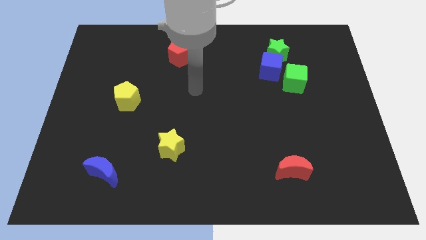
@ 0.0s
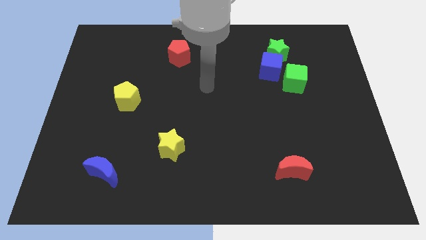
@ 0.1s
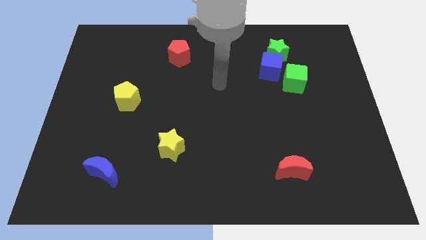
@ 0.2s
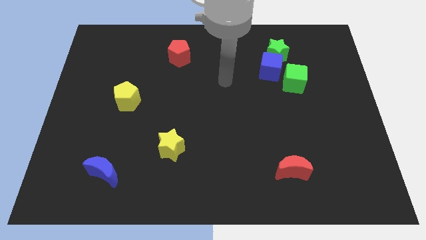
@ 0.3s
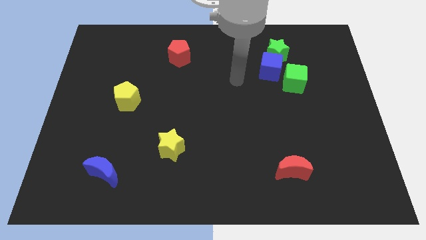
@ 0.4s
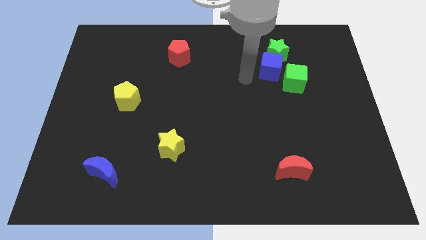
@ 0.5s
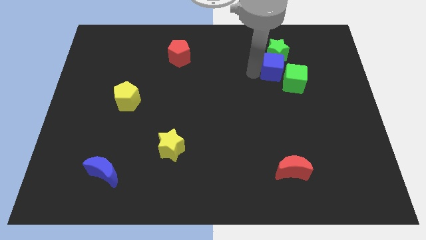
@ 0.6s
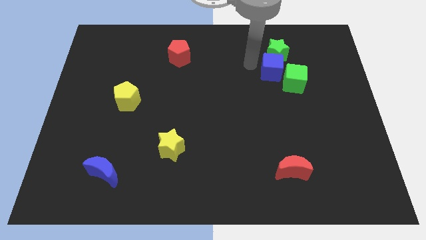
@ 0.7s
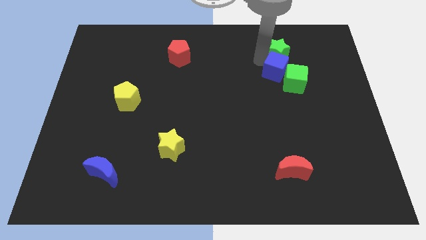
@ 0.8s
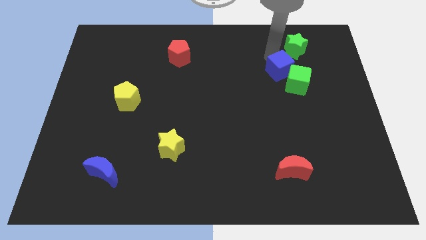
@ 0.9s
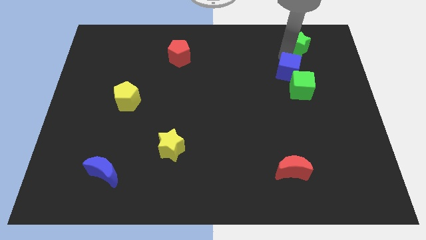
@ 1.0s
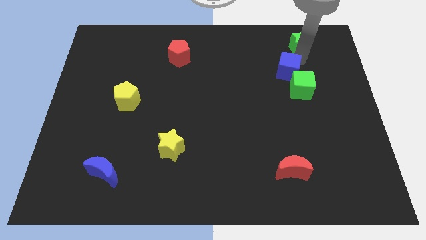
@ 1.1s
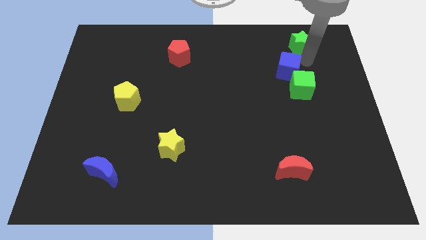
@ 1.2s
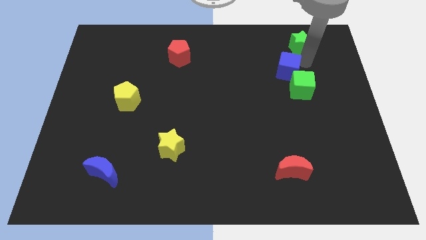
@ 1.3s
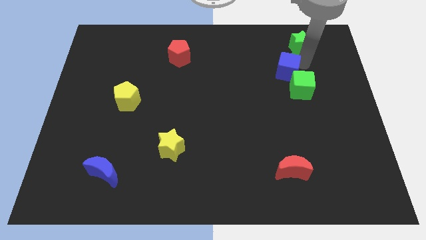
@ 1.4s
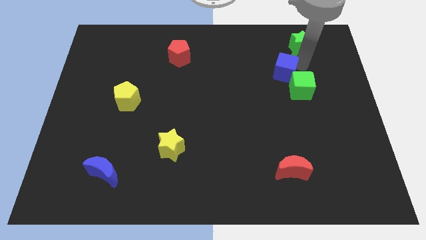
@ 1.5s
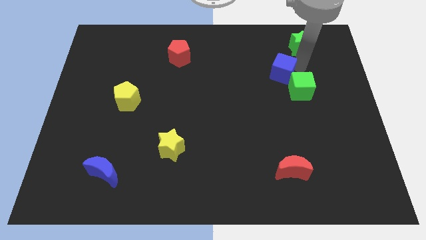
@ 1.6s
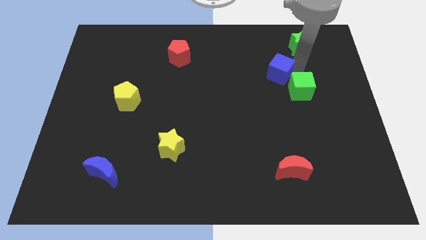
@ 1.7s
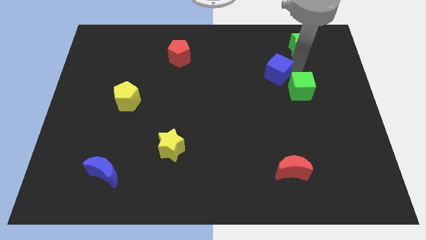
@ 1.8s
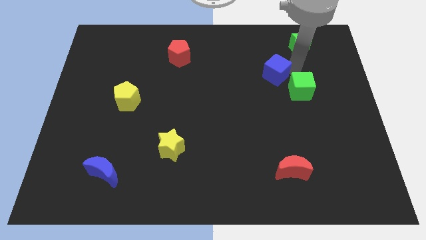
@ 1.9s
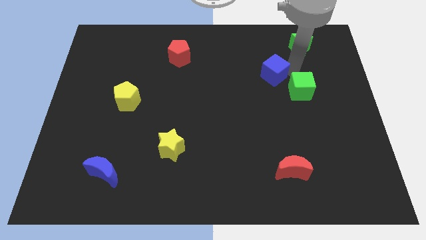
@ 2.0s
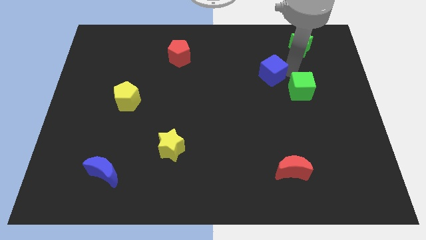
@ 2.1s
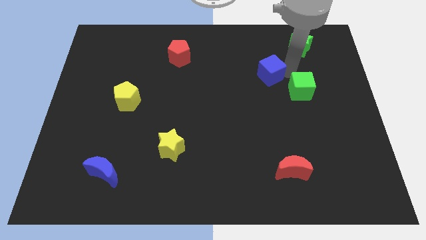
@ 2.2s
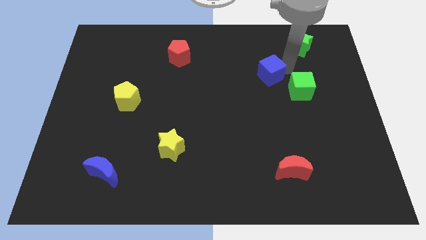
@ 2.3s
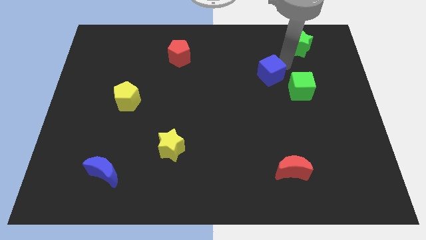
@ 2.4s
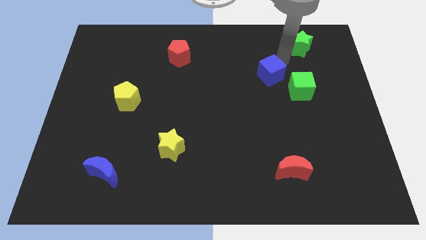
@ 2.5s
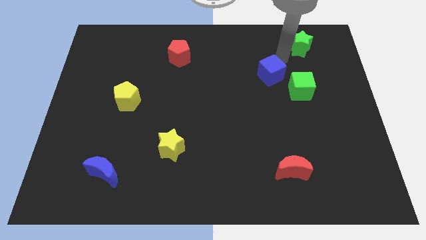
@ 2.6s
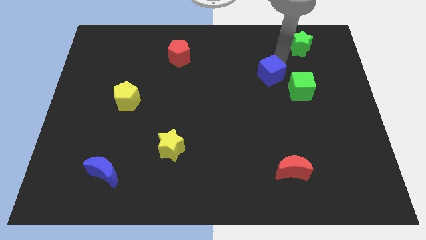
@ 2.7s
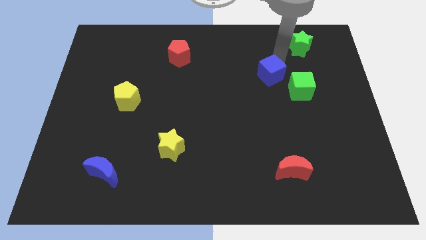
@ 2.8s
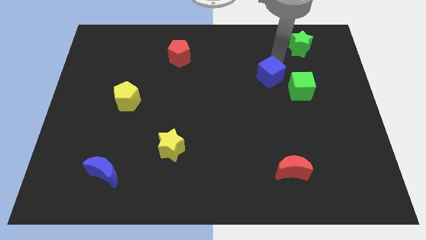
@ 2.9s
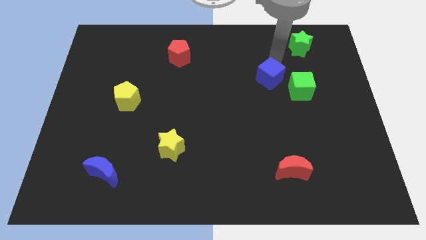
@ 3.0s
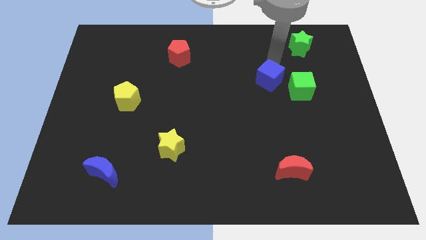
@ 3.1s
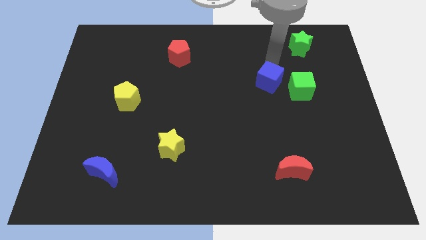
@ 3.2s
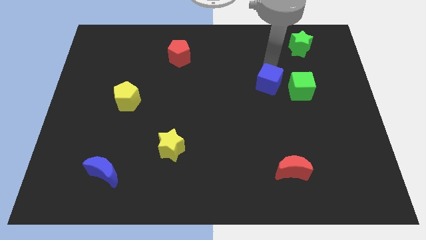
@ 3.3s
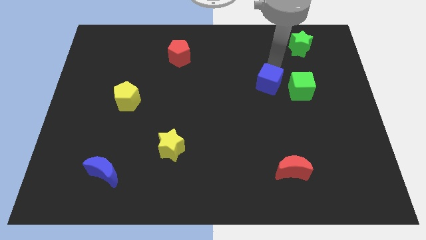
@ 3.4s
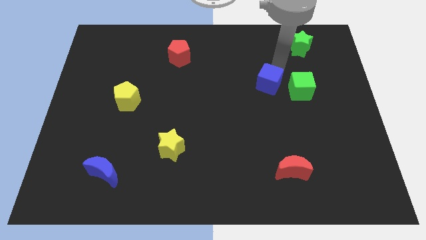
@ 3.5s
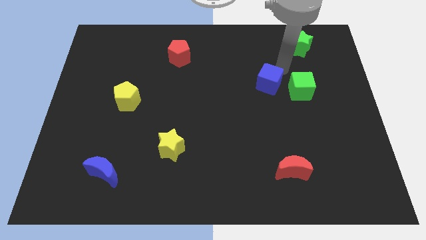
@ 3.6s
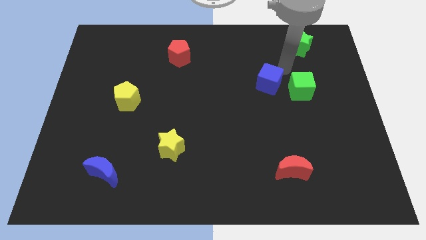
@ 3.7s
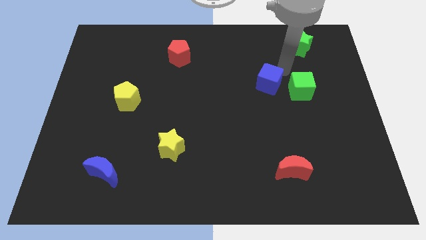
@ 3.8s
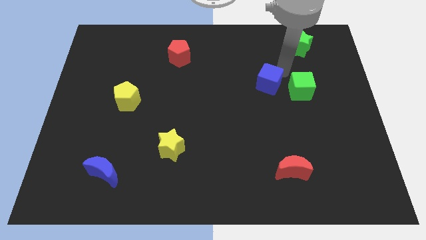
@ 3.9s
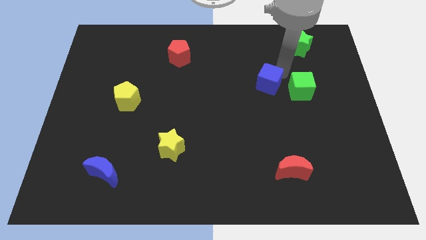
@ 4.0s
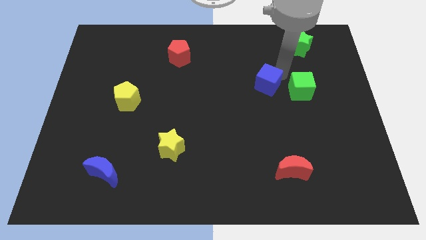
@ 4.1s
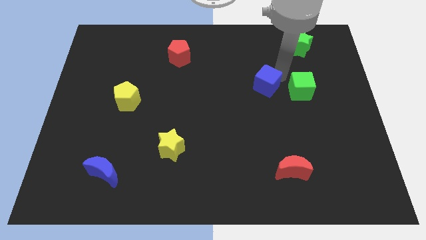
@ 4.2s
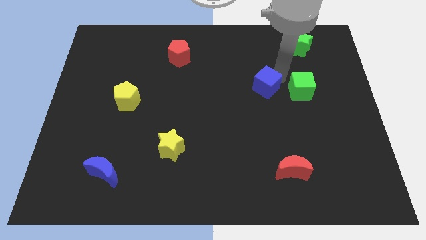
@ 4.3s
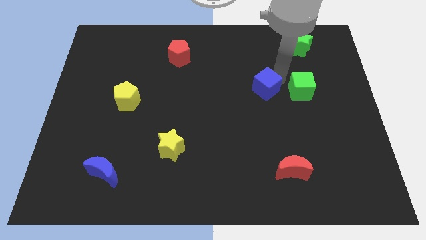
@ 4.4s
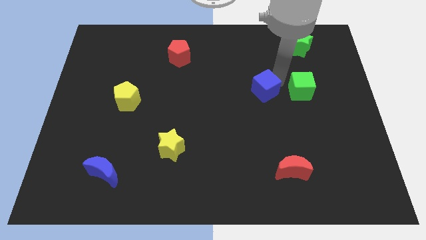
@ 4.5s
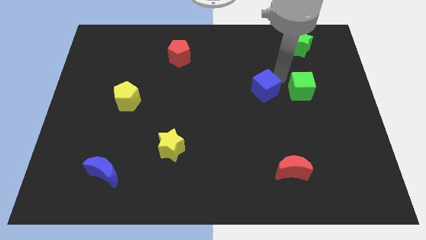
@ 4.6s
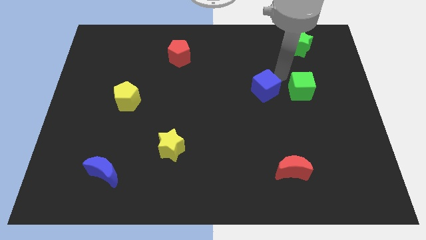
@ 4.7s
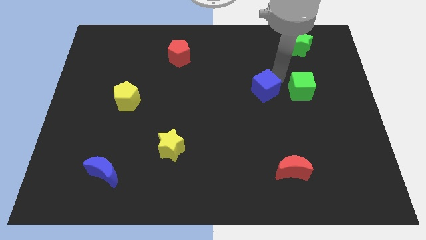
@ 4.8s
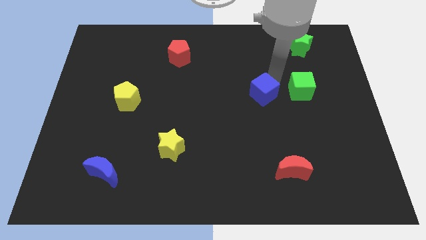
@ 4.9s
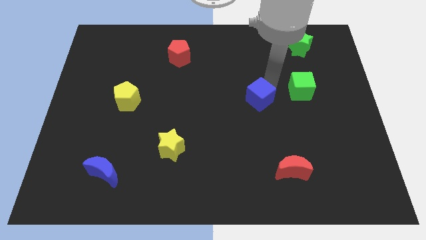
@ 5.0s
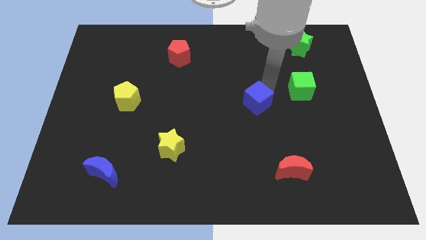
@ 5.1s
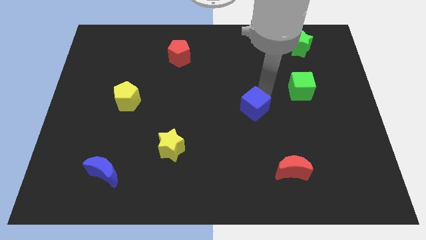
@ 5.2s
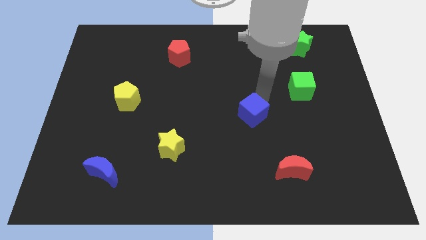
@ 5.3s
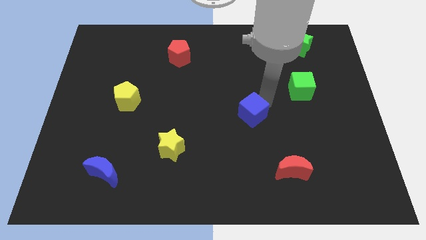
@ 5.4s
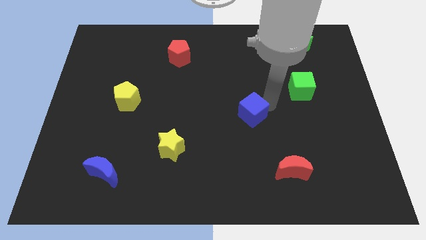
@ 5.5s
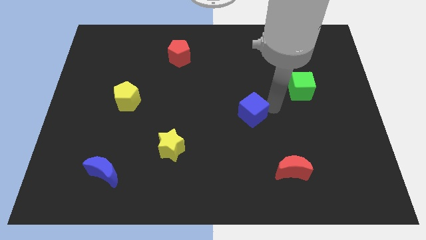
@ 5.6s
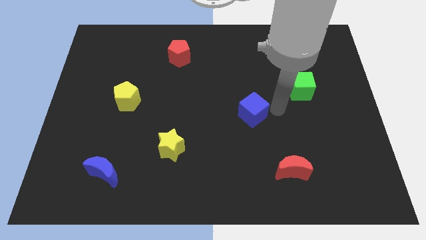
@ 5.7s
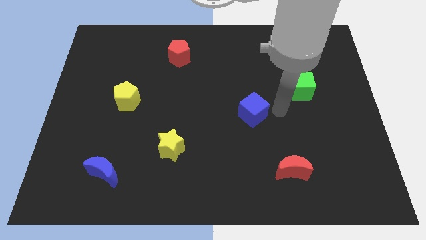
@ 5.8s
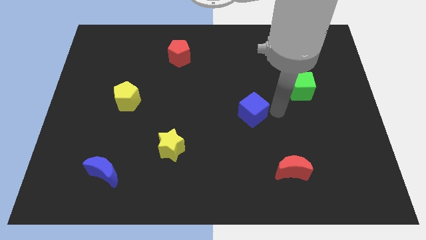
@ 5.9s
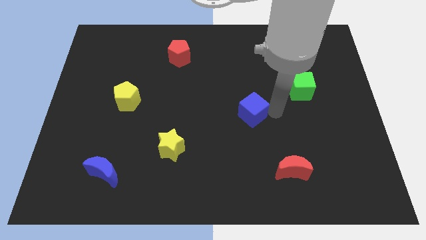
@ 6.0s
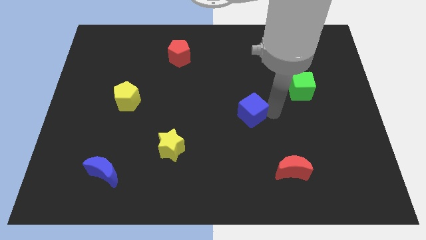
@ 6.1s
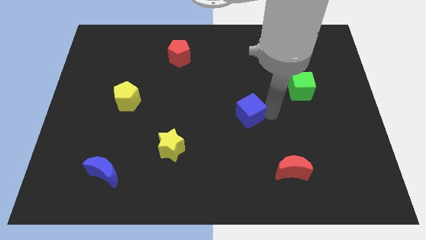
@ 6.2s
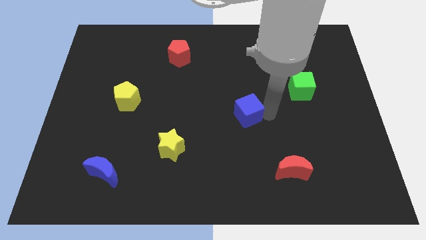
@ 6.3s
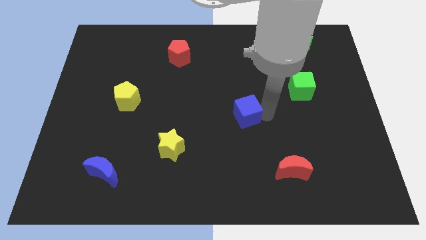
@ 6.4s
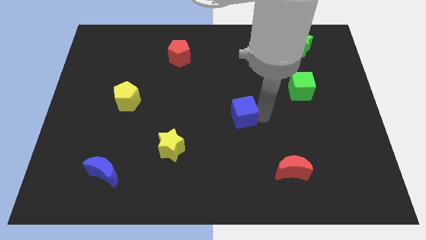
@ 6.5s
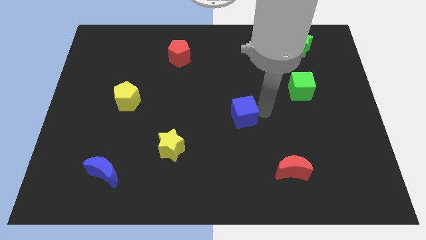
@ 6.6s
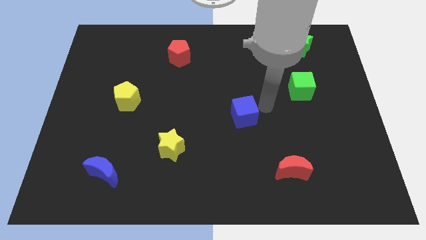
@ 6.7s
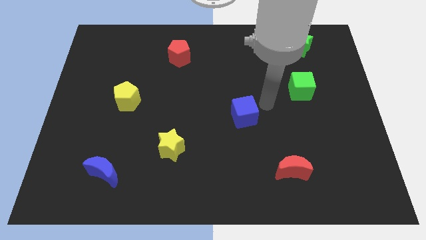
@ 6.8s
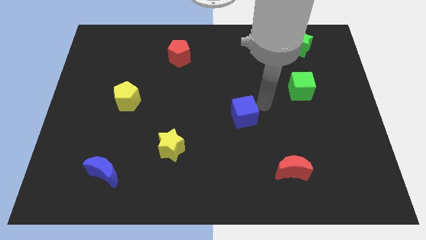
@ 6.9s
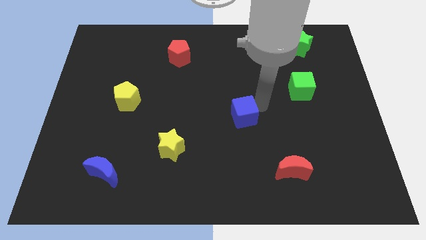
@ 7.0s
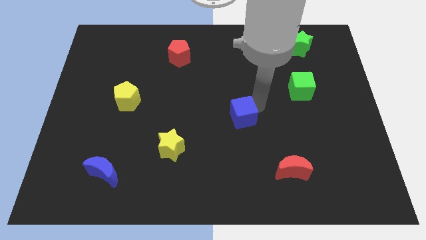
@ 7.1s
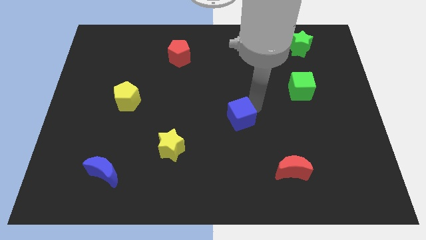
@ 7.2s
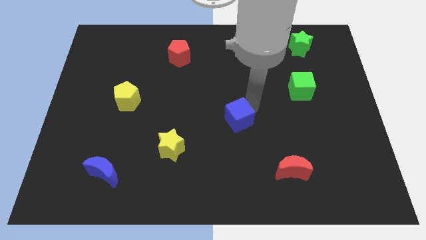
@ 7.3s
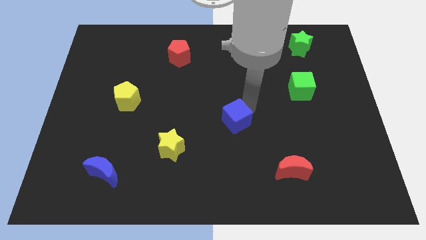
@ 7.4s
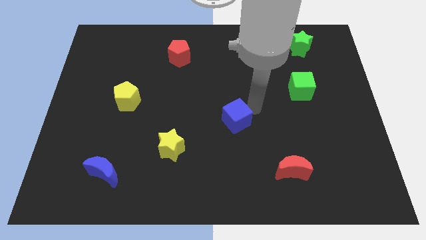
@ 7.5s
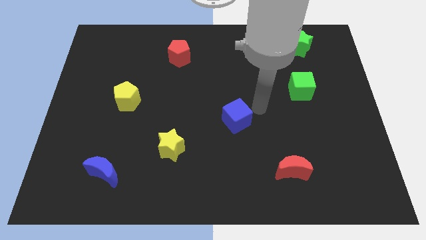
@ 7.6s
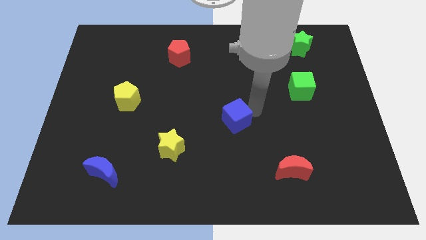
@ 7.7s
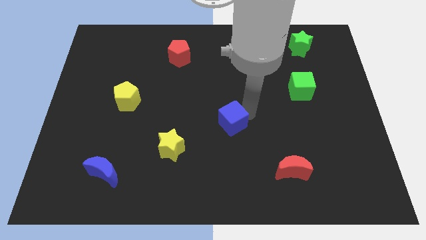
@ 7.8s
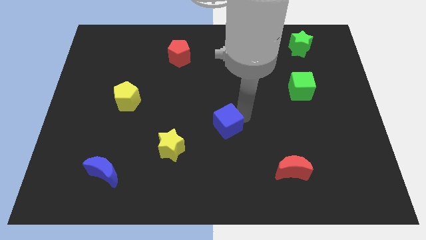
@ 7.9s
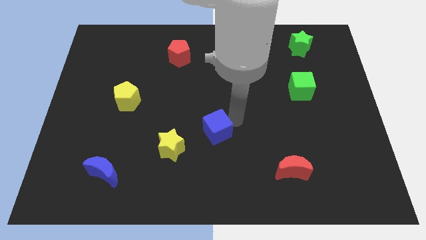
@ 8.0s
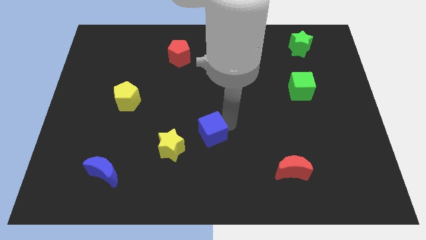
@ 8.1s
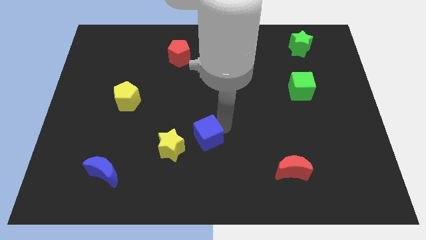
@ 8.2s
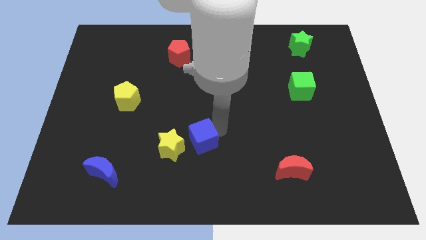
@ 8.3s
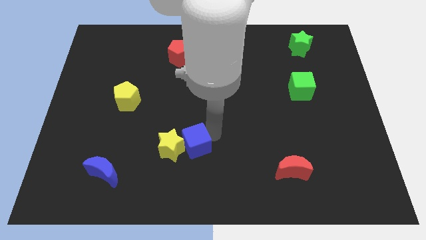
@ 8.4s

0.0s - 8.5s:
push the blue cube close to the yellow star
